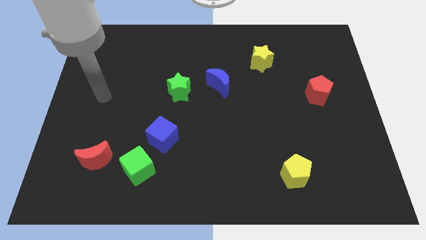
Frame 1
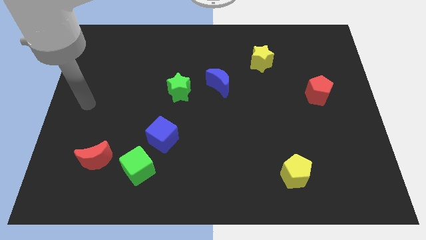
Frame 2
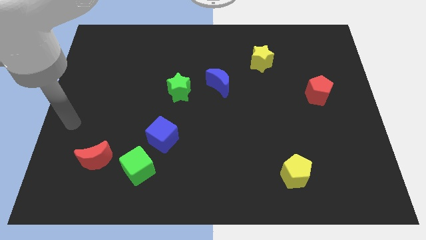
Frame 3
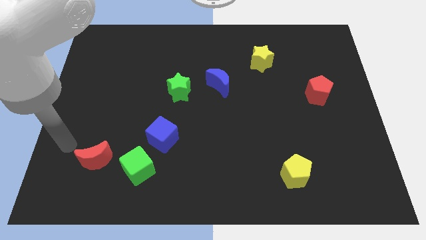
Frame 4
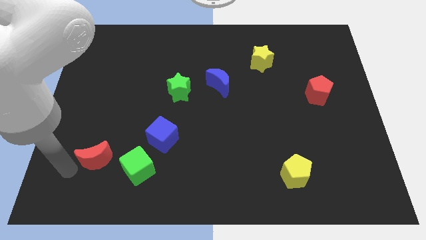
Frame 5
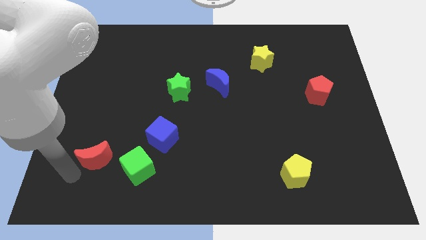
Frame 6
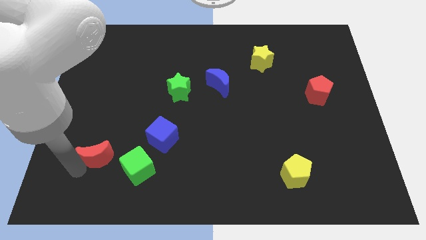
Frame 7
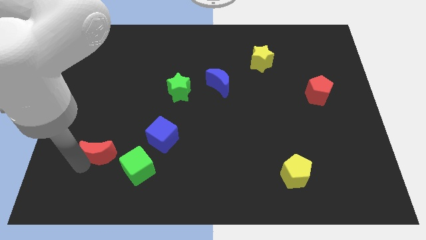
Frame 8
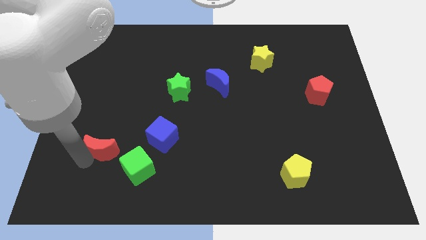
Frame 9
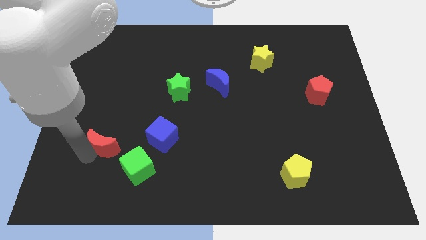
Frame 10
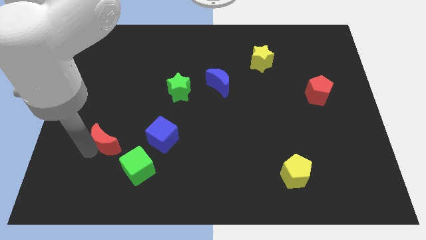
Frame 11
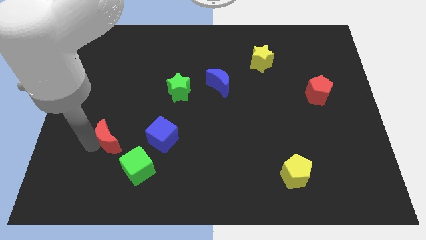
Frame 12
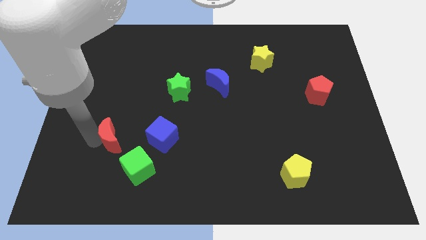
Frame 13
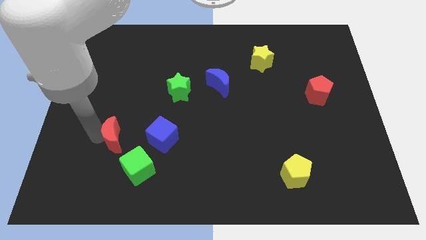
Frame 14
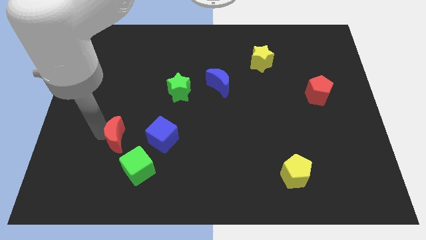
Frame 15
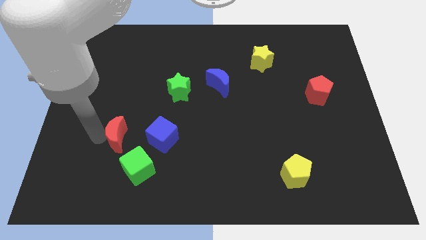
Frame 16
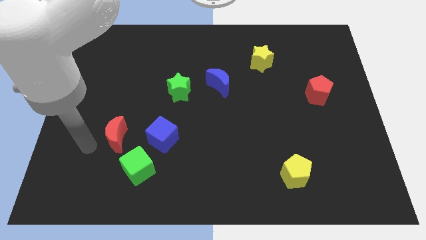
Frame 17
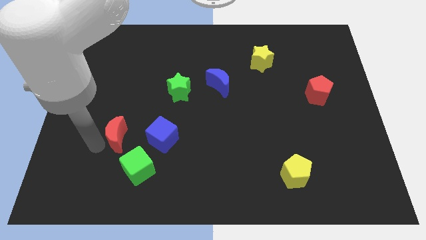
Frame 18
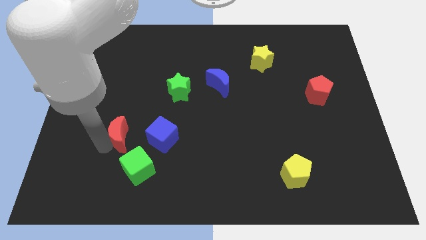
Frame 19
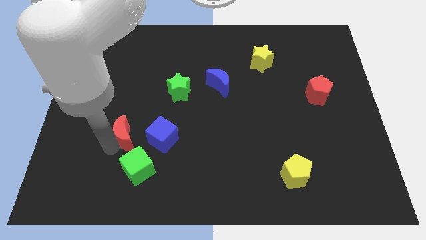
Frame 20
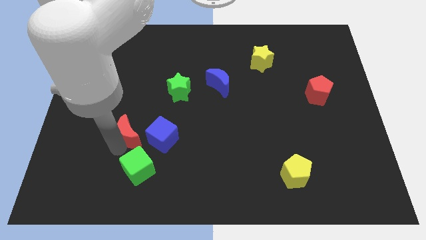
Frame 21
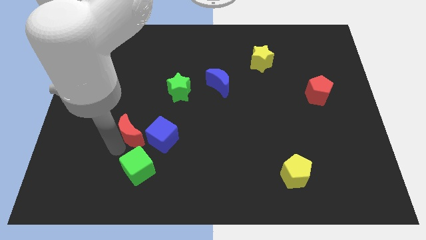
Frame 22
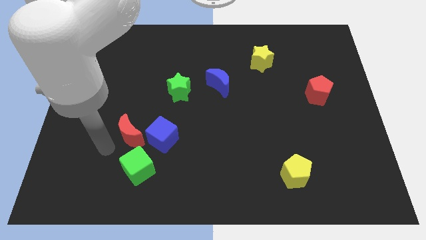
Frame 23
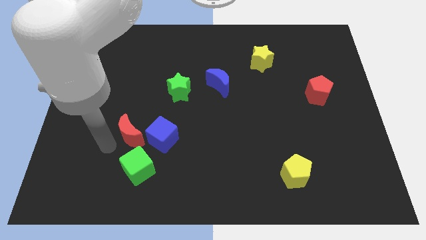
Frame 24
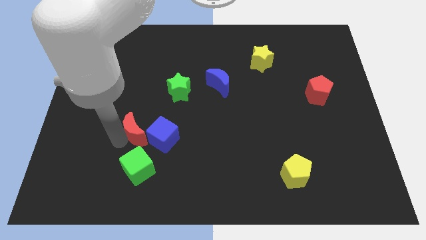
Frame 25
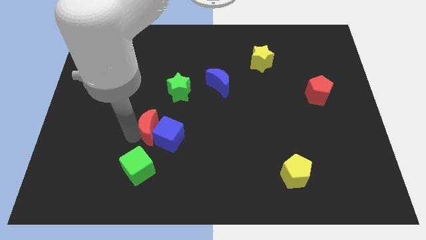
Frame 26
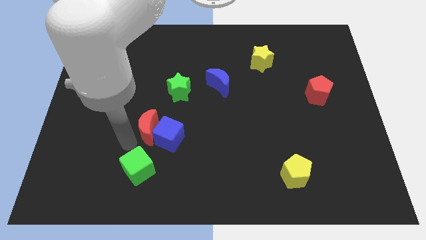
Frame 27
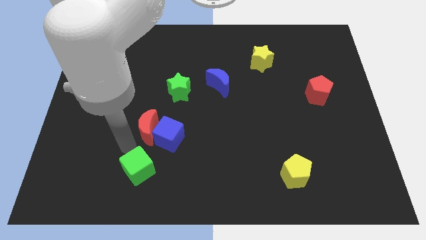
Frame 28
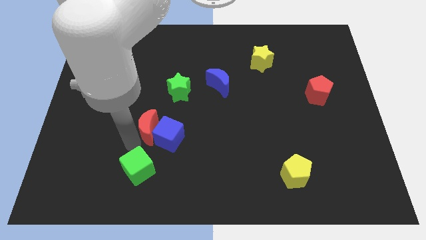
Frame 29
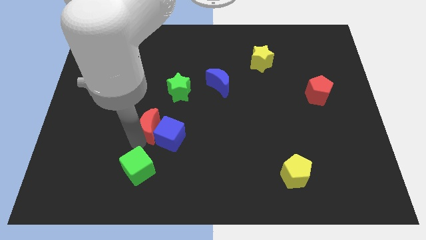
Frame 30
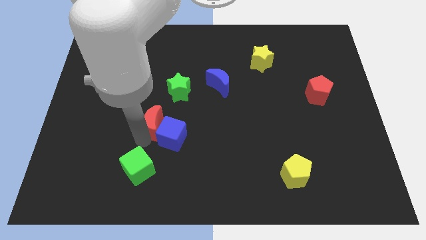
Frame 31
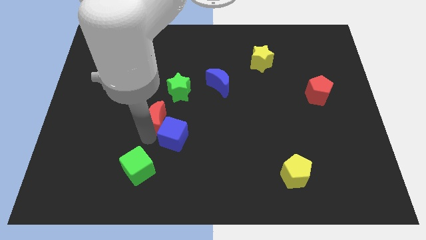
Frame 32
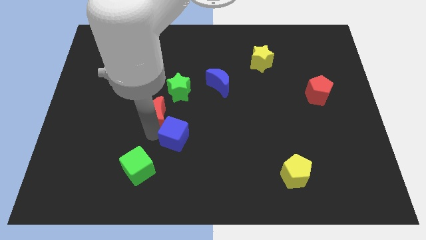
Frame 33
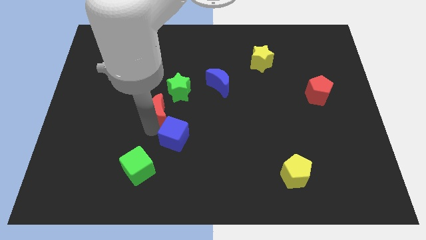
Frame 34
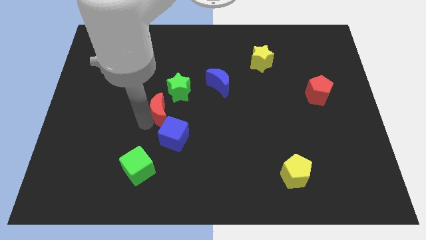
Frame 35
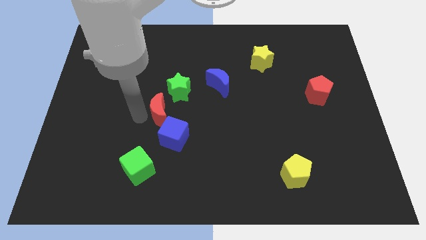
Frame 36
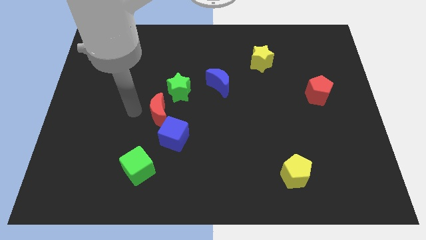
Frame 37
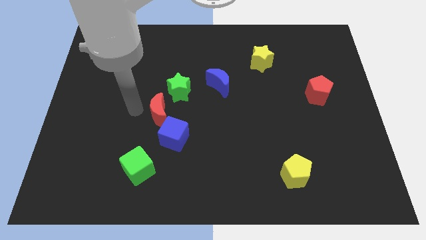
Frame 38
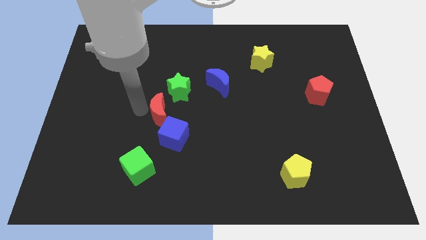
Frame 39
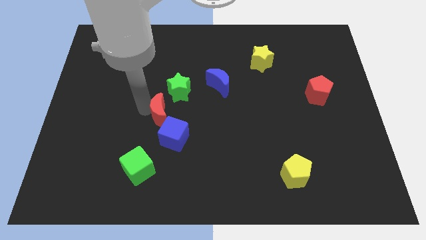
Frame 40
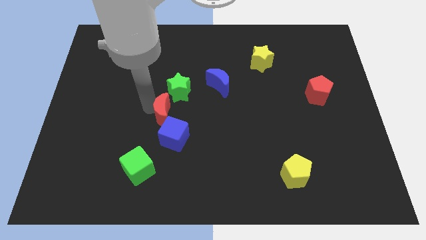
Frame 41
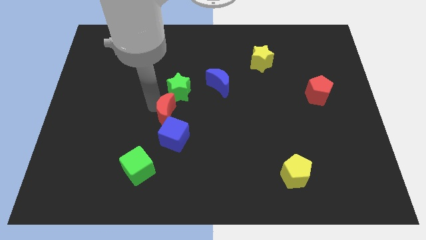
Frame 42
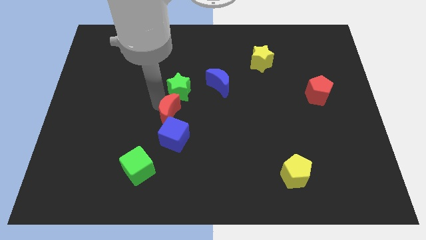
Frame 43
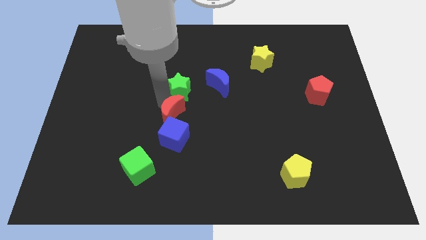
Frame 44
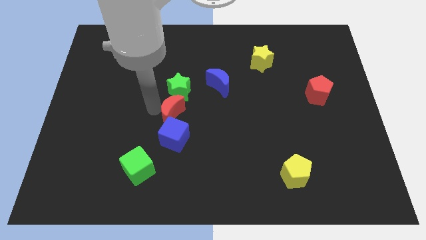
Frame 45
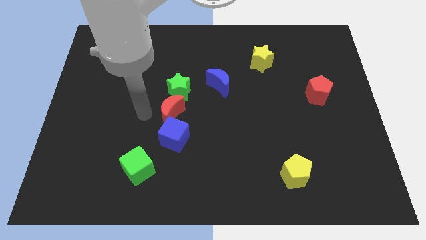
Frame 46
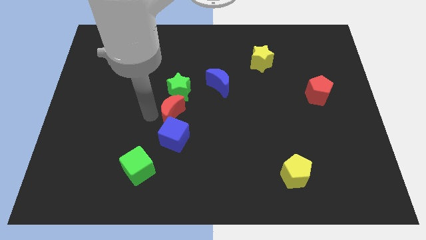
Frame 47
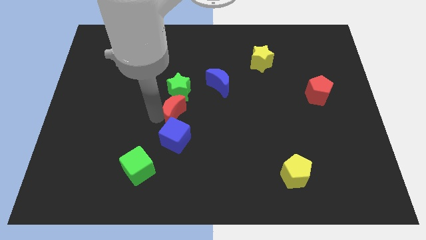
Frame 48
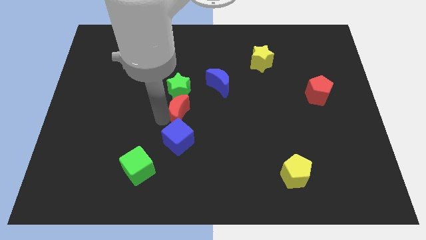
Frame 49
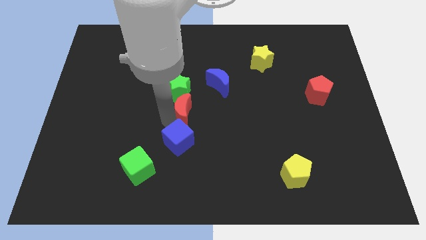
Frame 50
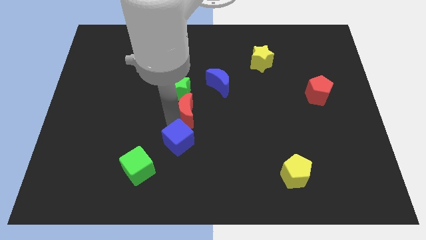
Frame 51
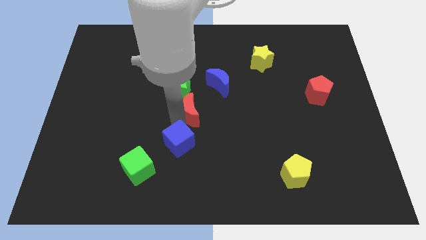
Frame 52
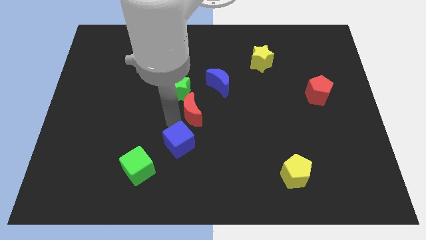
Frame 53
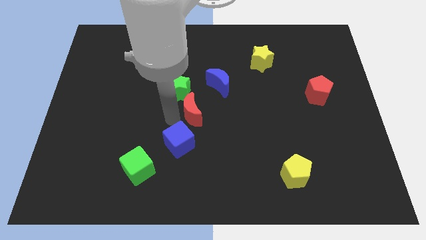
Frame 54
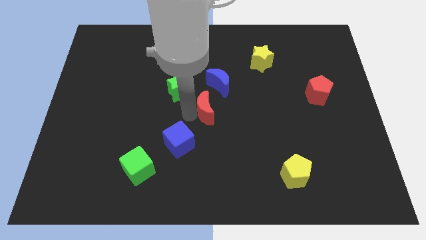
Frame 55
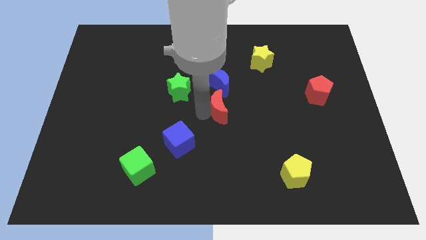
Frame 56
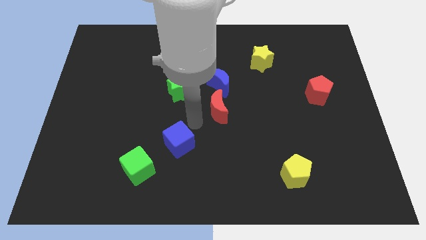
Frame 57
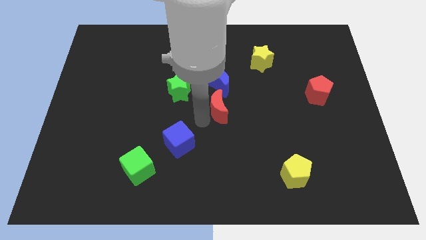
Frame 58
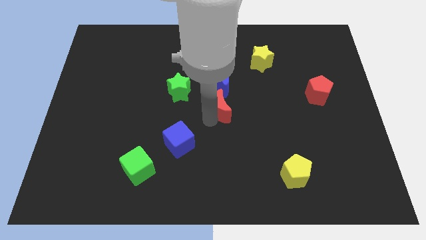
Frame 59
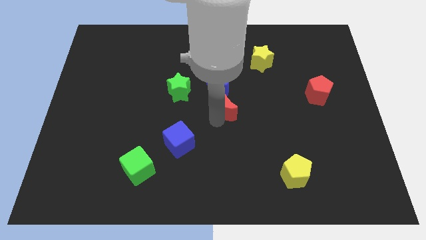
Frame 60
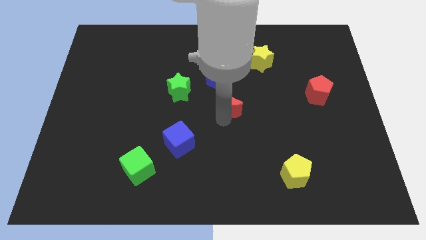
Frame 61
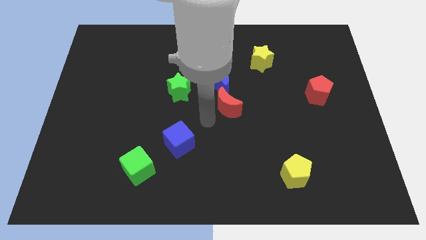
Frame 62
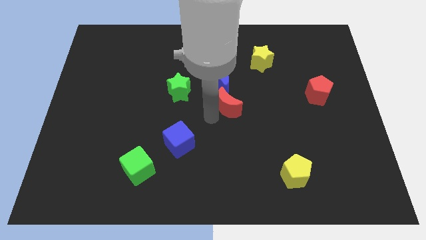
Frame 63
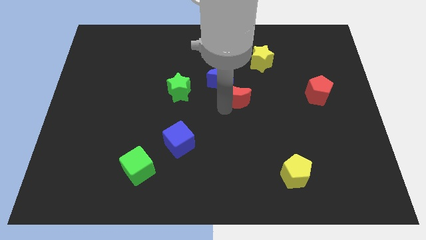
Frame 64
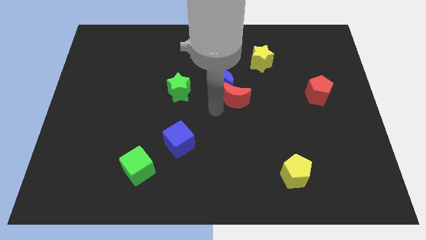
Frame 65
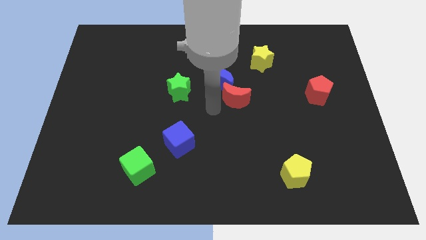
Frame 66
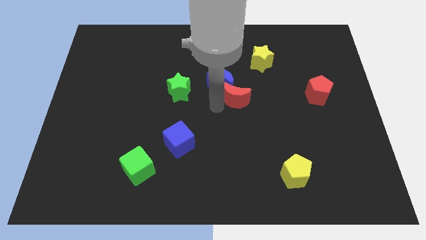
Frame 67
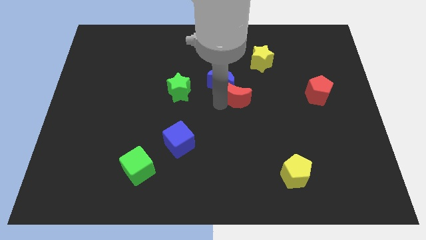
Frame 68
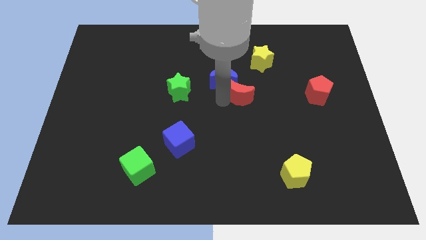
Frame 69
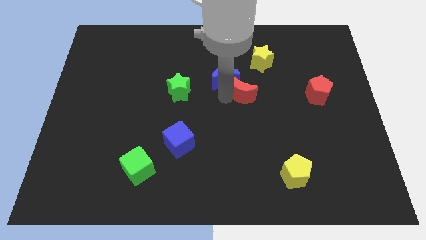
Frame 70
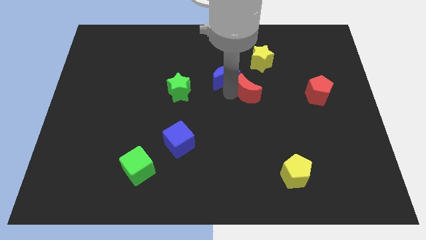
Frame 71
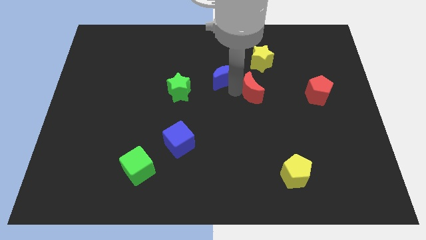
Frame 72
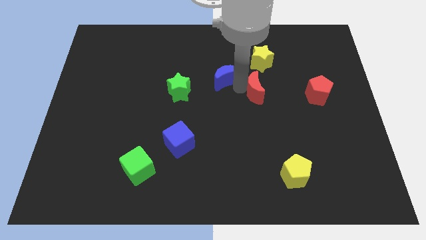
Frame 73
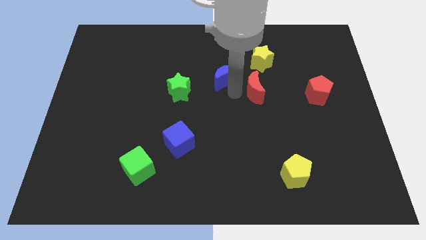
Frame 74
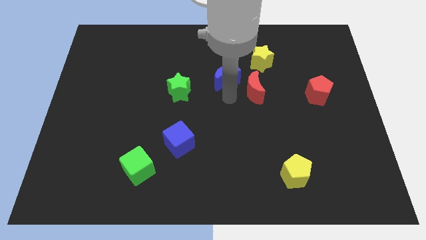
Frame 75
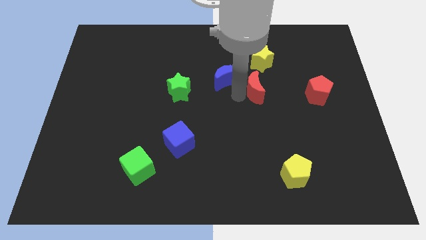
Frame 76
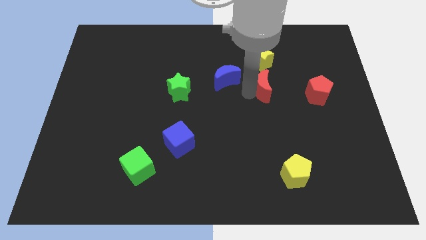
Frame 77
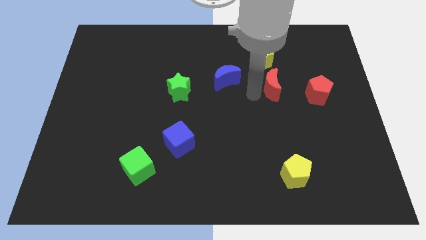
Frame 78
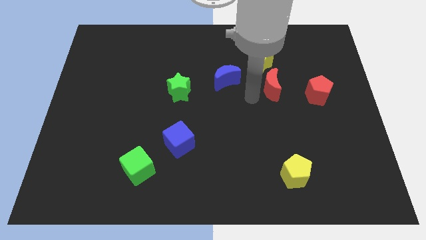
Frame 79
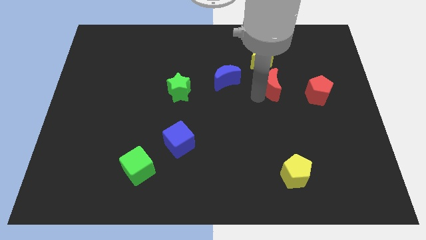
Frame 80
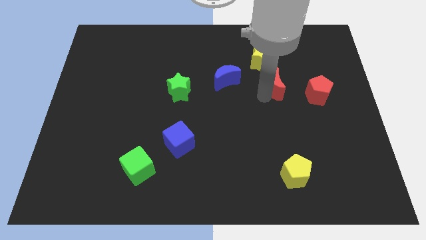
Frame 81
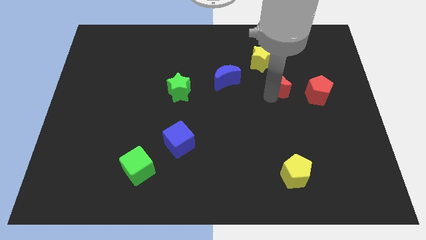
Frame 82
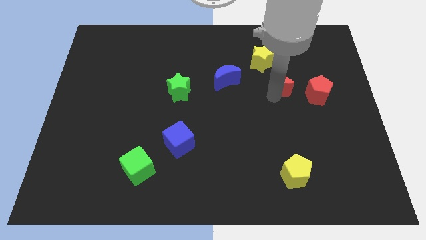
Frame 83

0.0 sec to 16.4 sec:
put the red moon to the top left side of the red pentagon
